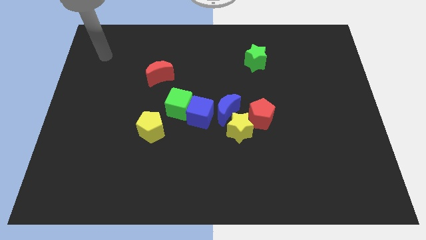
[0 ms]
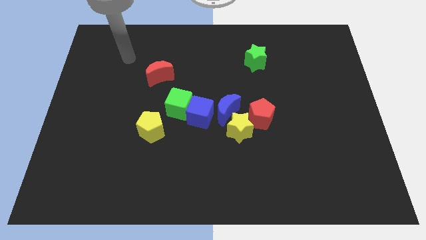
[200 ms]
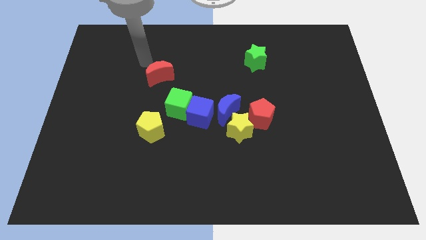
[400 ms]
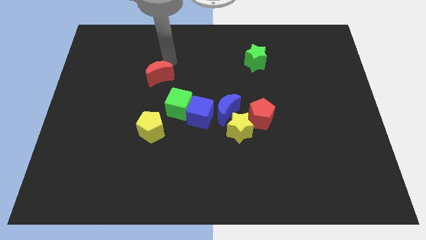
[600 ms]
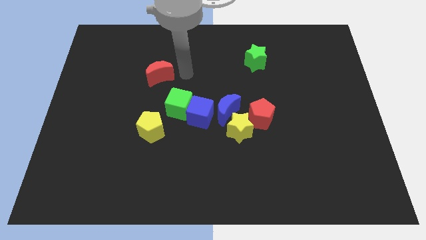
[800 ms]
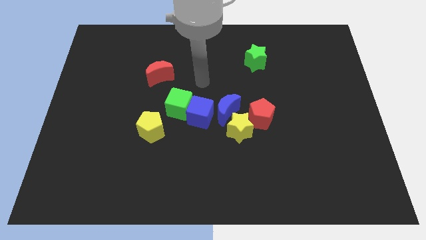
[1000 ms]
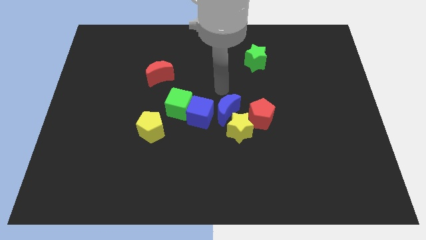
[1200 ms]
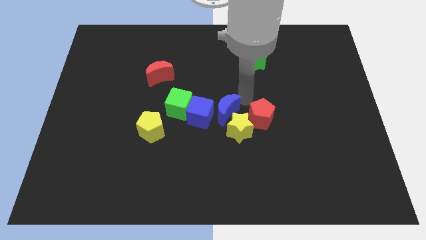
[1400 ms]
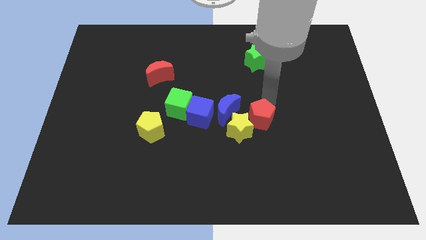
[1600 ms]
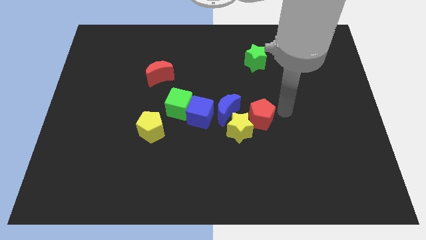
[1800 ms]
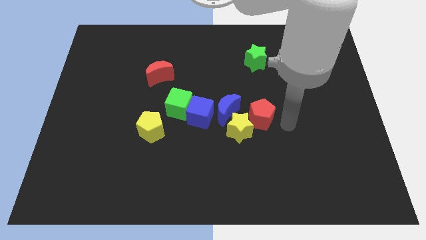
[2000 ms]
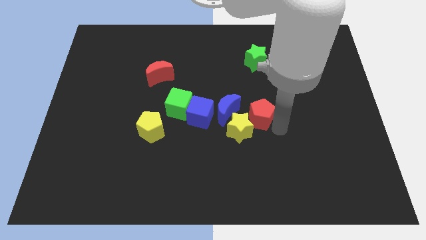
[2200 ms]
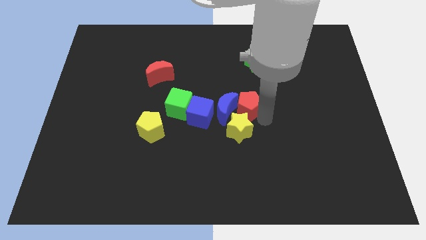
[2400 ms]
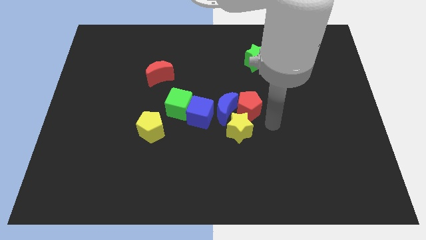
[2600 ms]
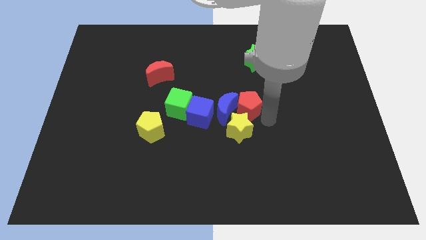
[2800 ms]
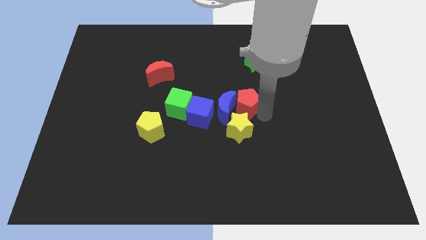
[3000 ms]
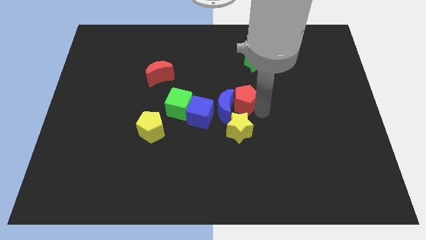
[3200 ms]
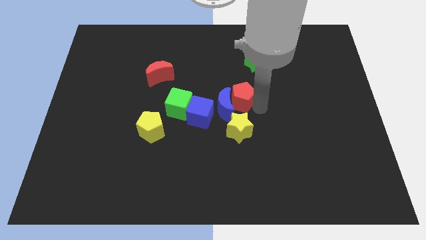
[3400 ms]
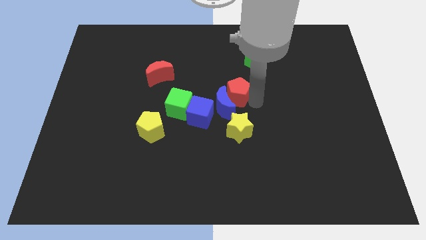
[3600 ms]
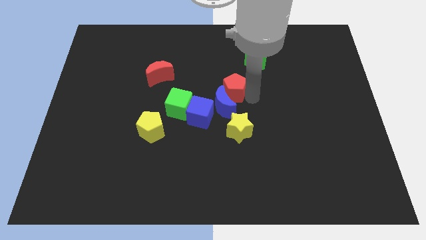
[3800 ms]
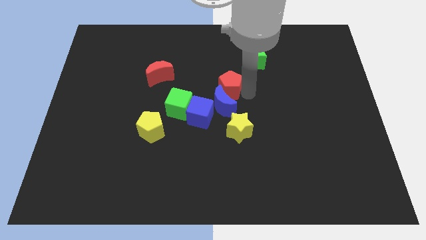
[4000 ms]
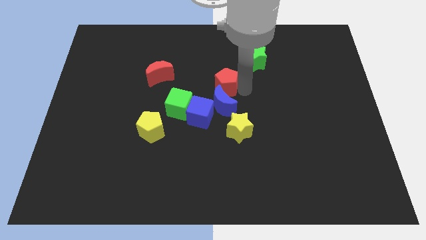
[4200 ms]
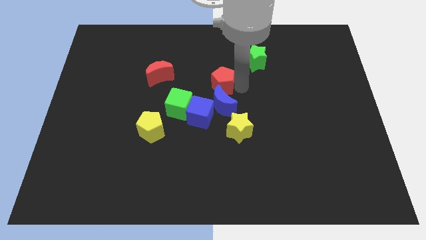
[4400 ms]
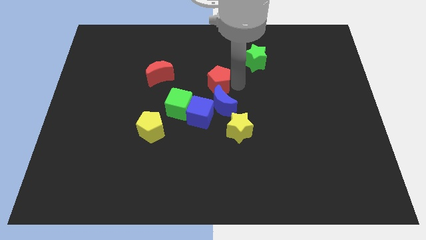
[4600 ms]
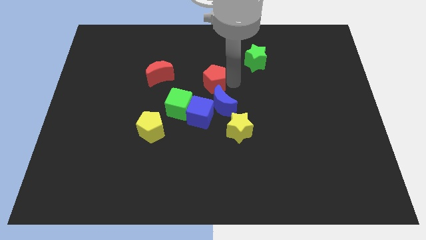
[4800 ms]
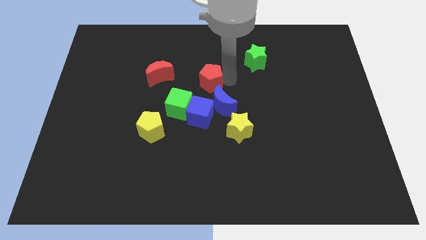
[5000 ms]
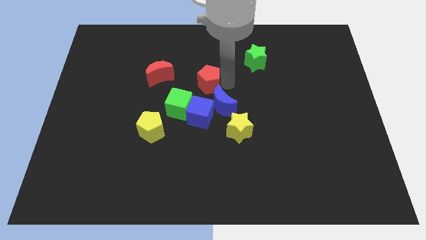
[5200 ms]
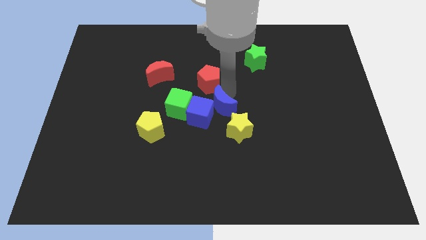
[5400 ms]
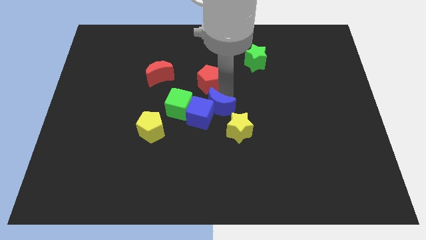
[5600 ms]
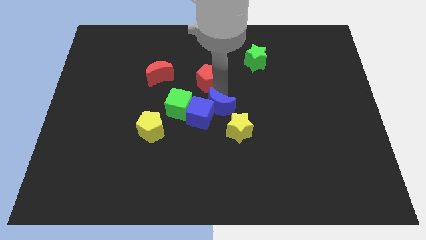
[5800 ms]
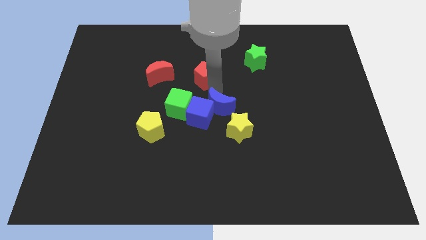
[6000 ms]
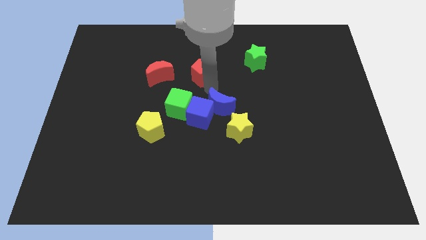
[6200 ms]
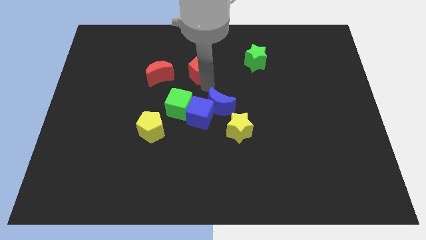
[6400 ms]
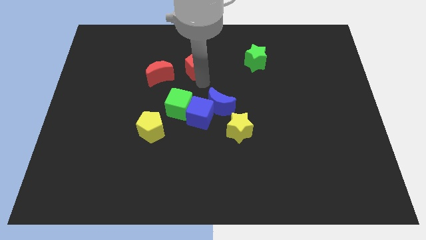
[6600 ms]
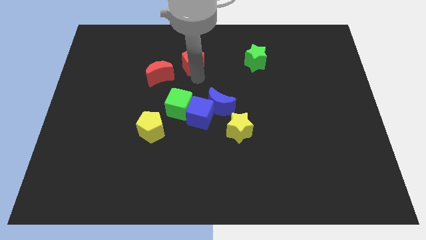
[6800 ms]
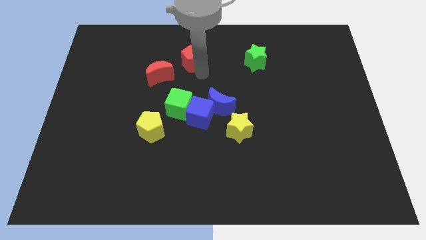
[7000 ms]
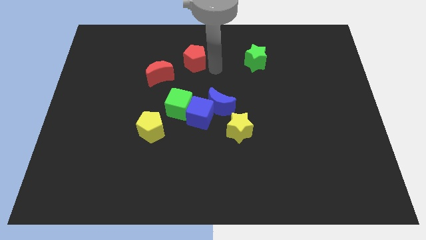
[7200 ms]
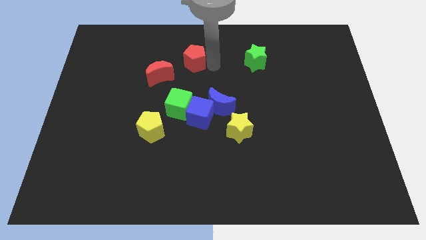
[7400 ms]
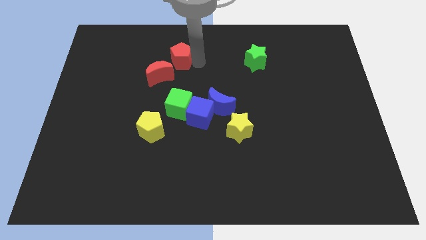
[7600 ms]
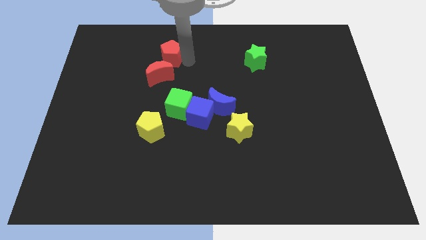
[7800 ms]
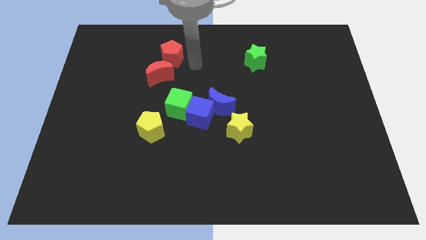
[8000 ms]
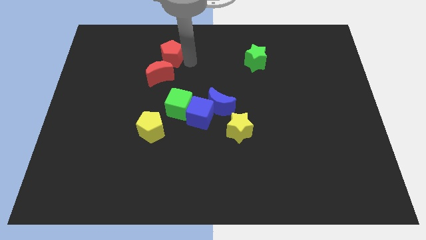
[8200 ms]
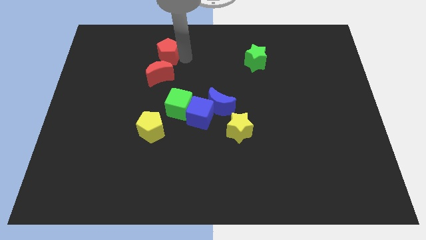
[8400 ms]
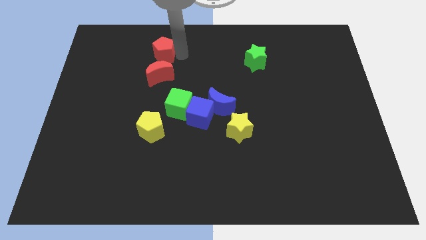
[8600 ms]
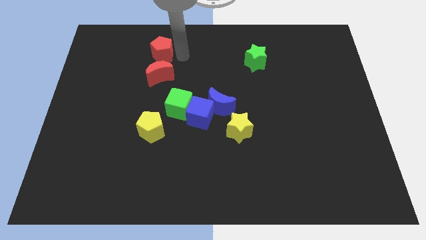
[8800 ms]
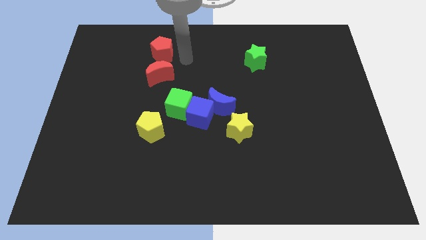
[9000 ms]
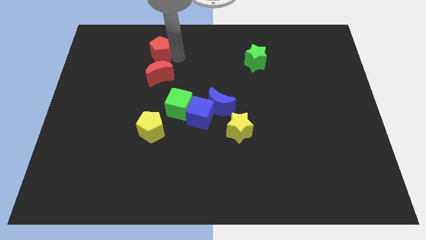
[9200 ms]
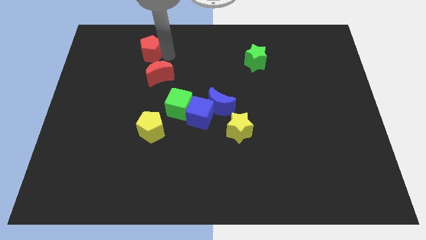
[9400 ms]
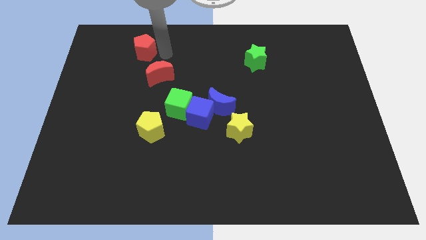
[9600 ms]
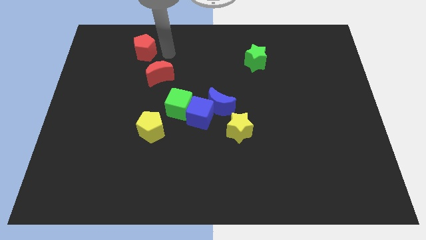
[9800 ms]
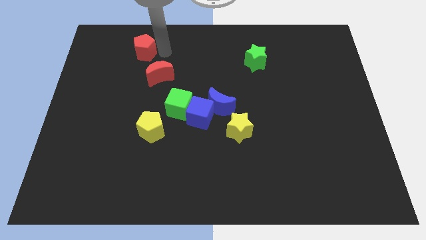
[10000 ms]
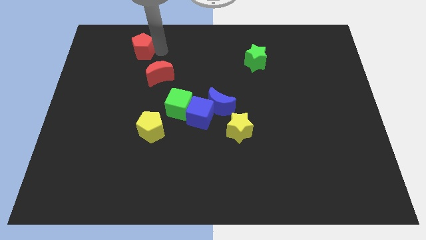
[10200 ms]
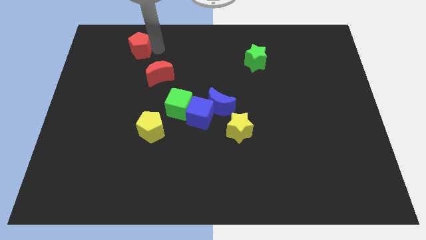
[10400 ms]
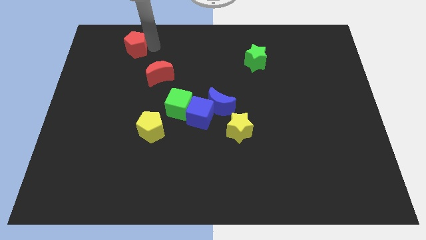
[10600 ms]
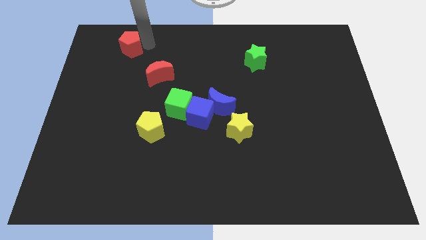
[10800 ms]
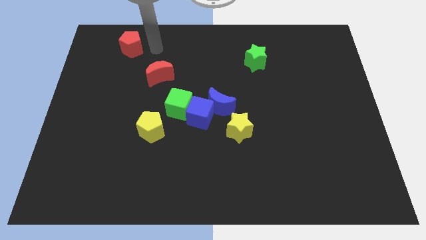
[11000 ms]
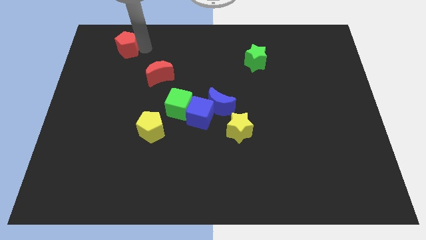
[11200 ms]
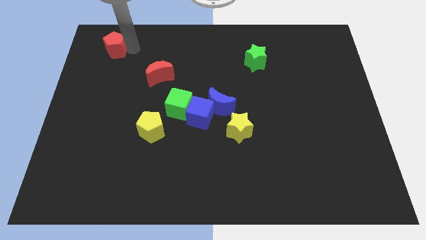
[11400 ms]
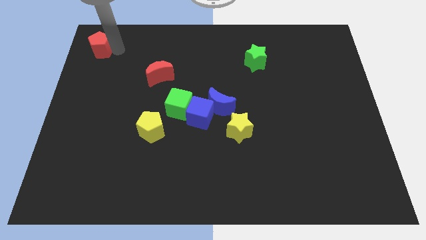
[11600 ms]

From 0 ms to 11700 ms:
slide the red pentagon to the upper left corner
